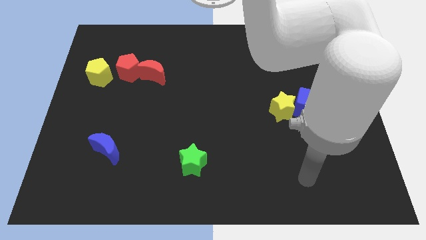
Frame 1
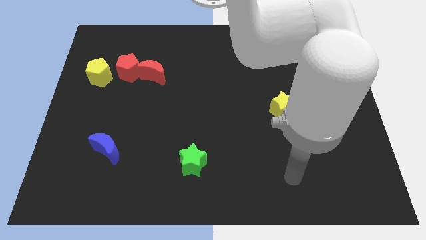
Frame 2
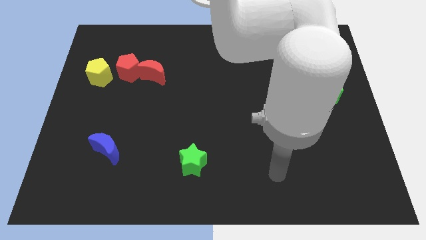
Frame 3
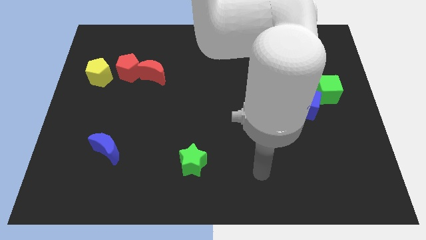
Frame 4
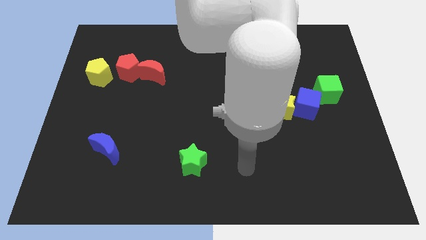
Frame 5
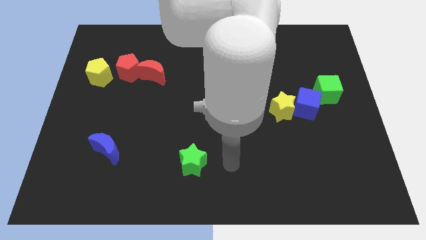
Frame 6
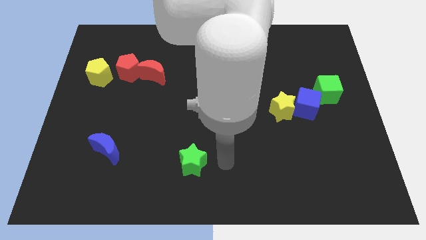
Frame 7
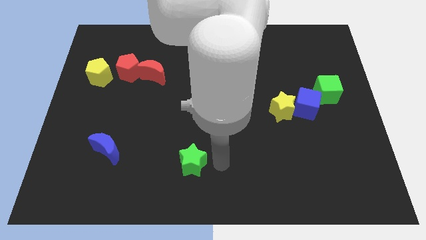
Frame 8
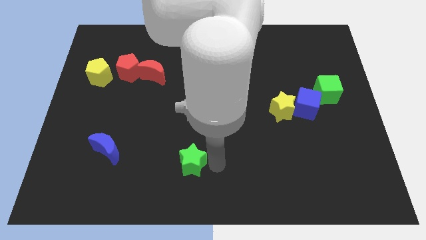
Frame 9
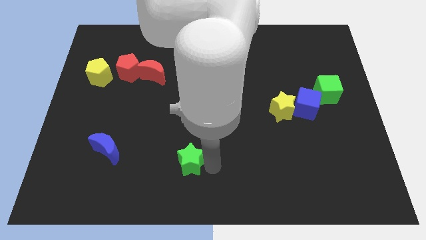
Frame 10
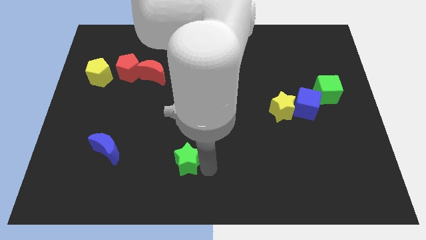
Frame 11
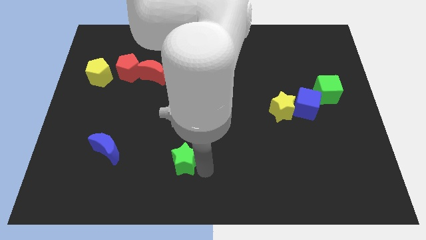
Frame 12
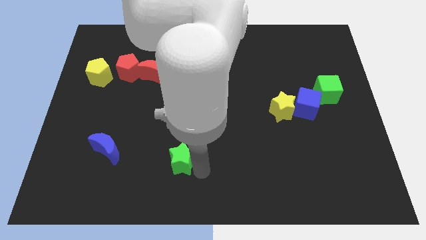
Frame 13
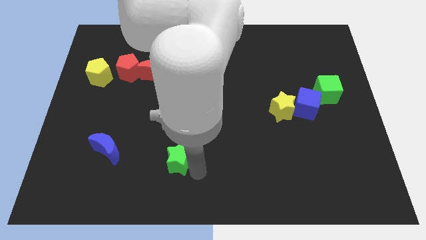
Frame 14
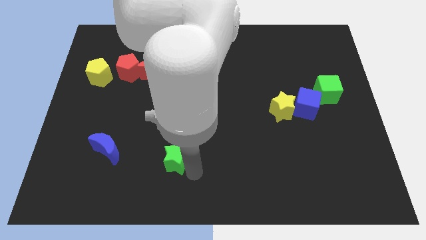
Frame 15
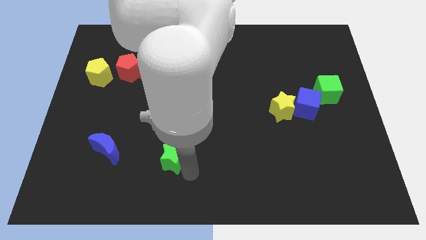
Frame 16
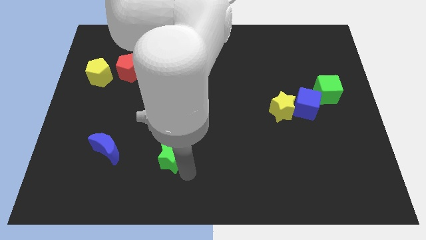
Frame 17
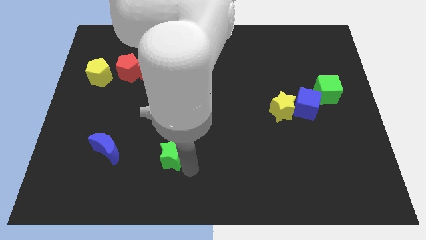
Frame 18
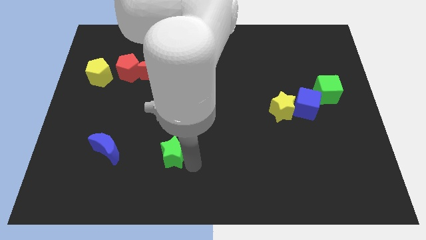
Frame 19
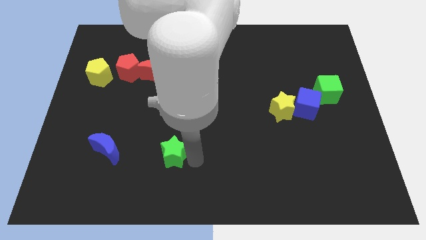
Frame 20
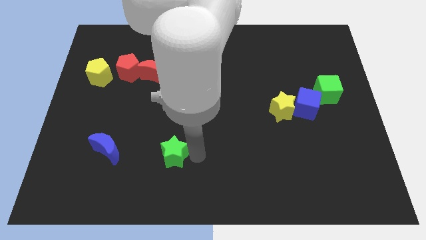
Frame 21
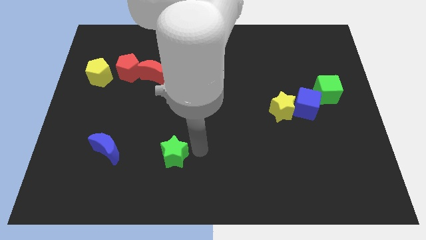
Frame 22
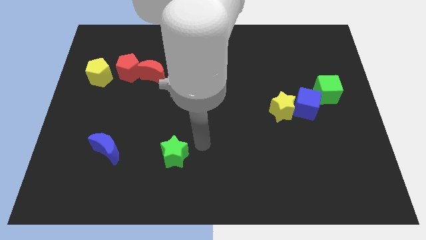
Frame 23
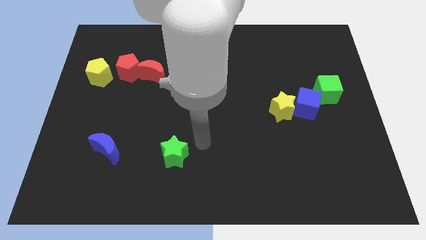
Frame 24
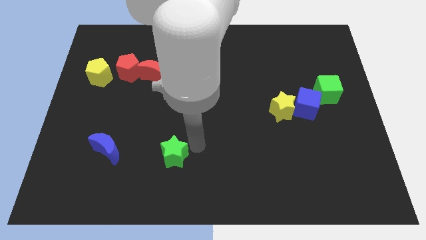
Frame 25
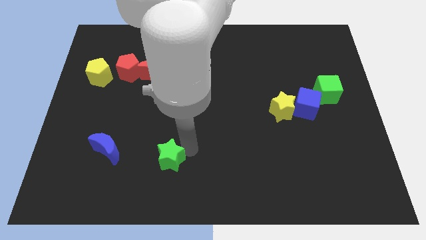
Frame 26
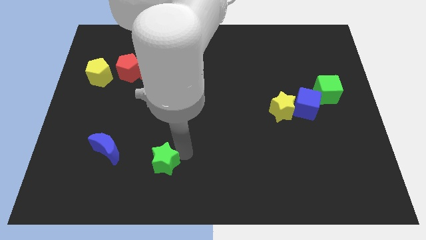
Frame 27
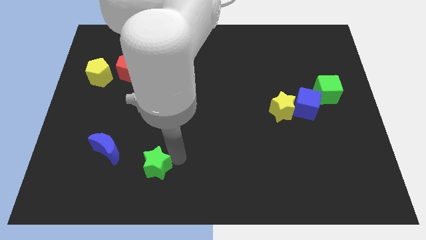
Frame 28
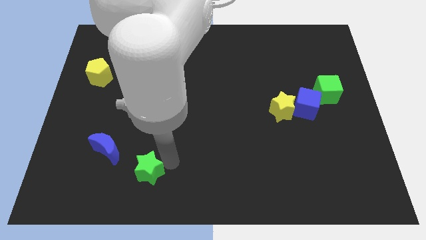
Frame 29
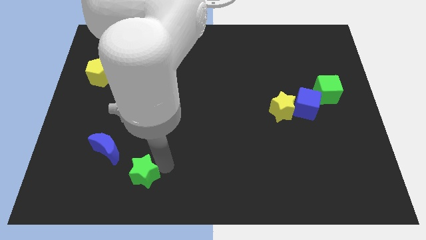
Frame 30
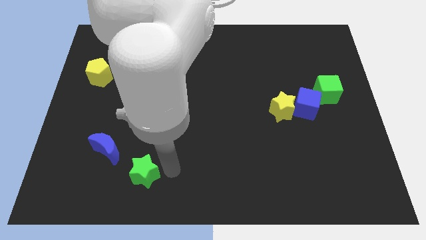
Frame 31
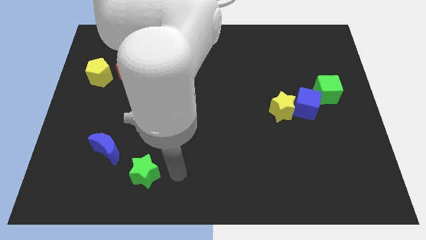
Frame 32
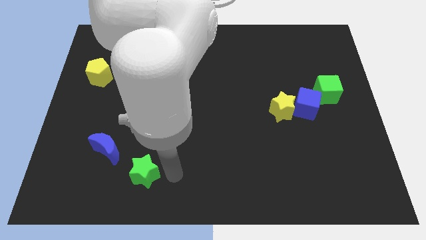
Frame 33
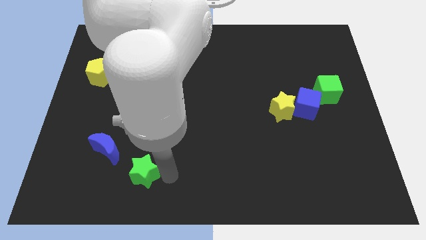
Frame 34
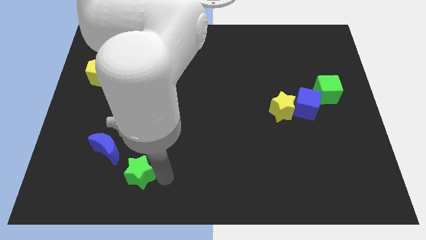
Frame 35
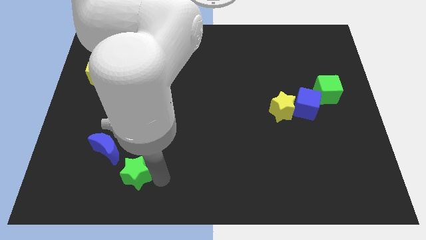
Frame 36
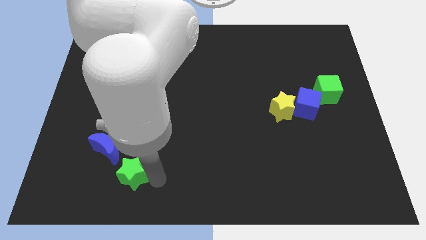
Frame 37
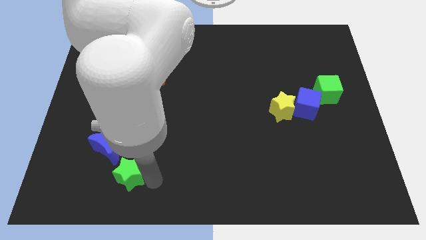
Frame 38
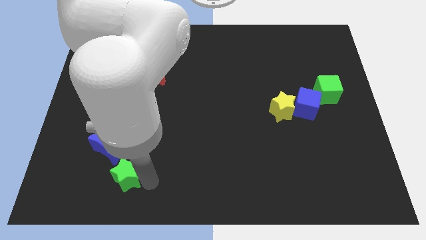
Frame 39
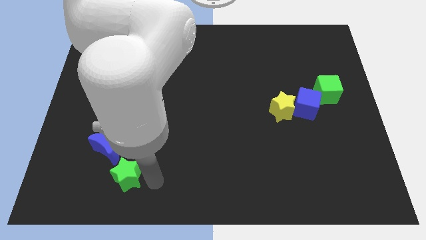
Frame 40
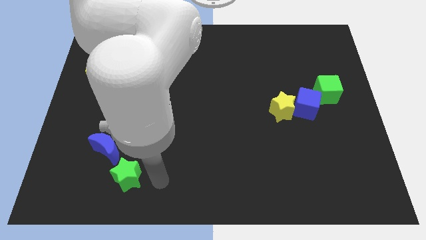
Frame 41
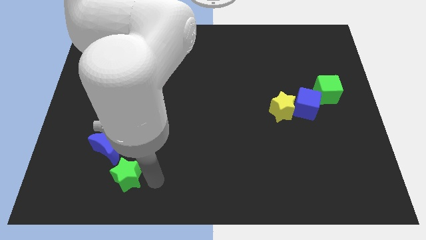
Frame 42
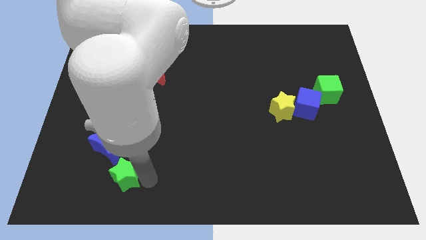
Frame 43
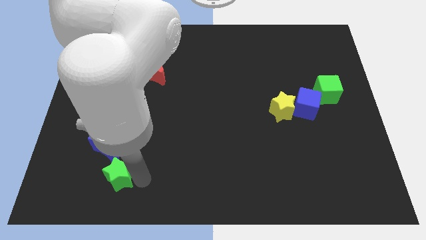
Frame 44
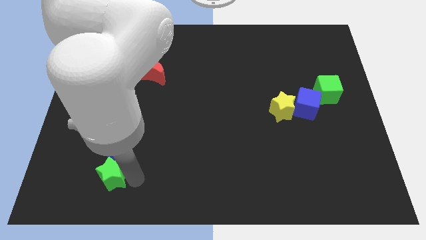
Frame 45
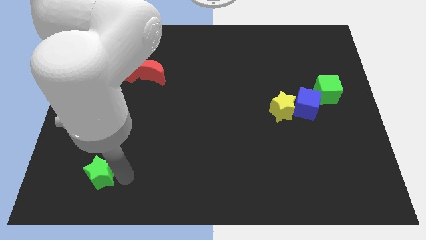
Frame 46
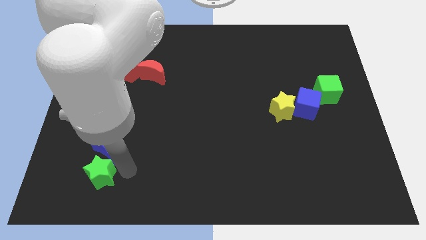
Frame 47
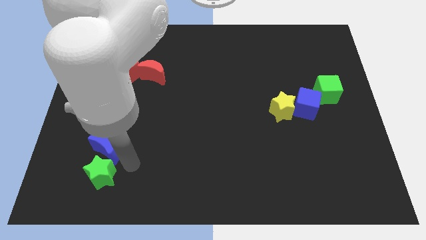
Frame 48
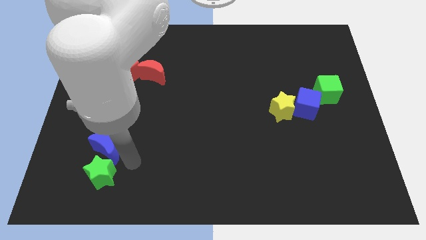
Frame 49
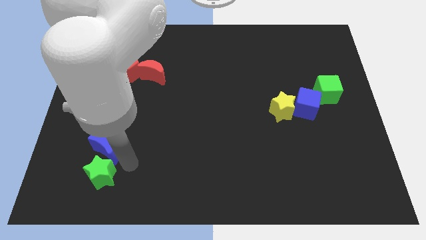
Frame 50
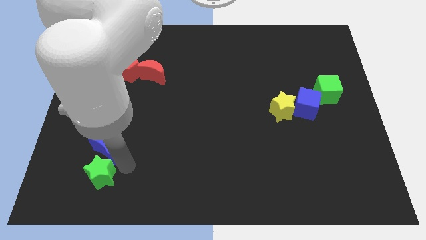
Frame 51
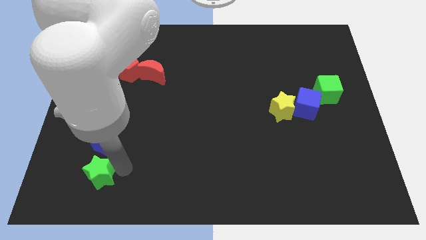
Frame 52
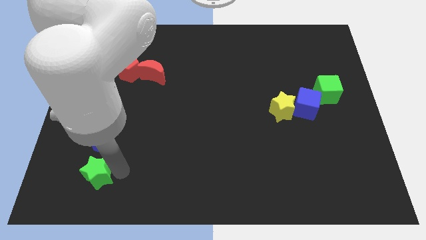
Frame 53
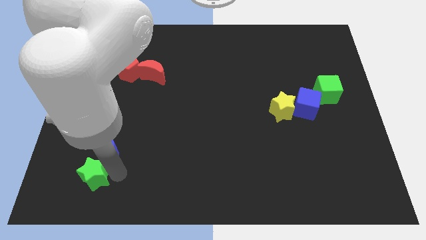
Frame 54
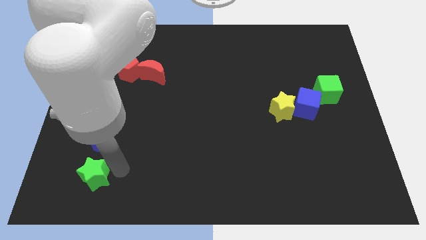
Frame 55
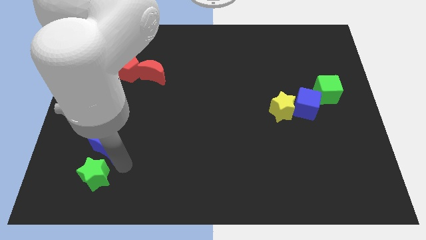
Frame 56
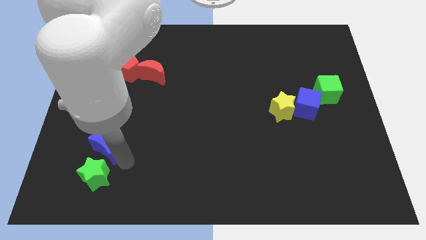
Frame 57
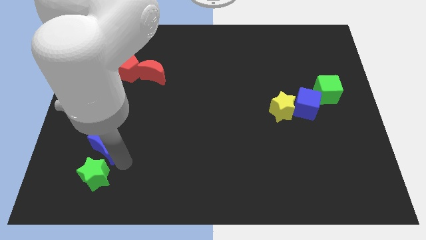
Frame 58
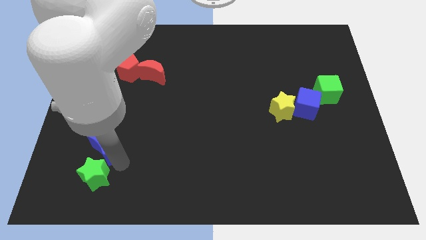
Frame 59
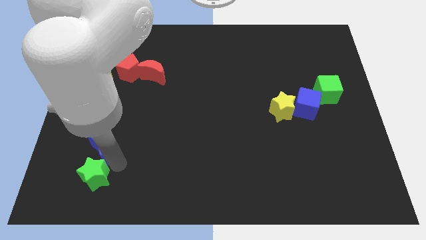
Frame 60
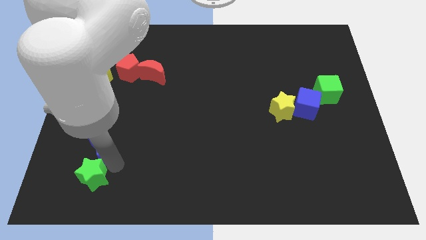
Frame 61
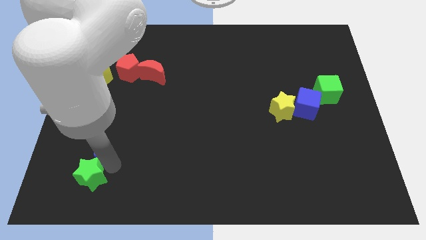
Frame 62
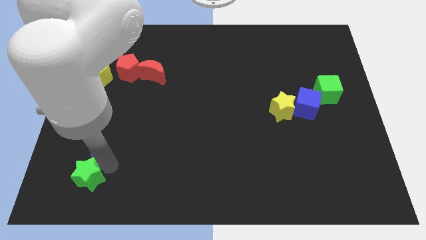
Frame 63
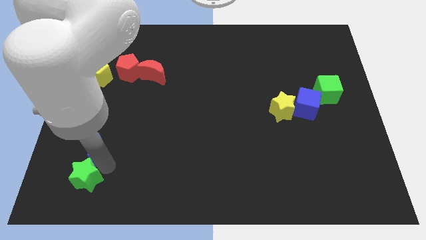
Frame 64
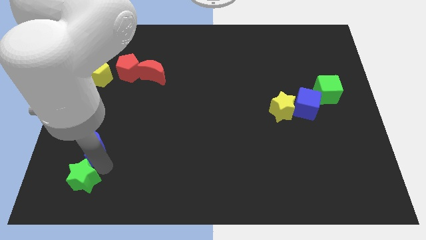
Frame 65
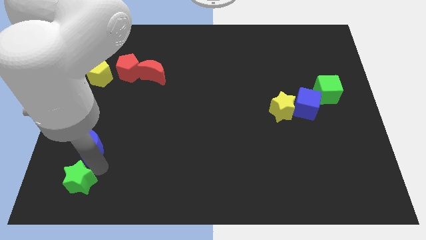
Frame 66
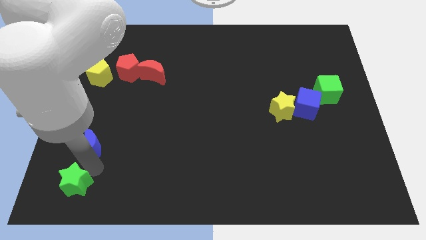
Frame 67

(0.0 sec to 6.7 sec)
move the green star to the bottom left

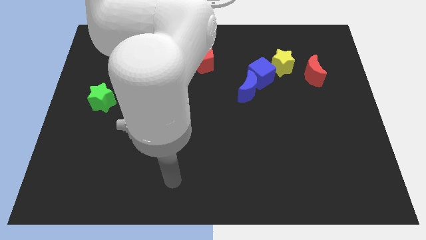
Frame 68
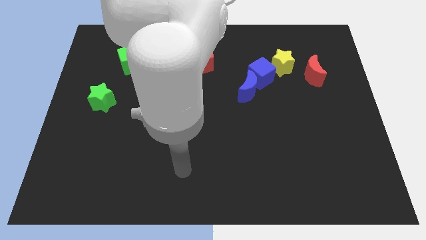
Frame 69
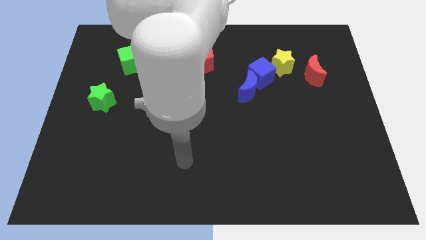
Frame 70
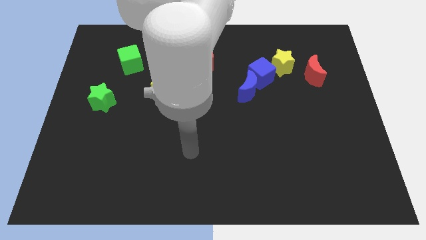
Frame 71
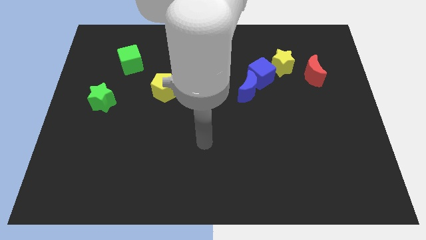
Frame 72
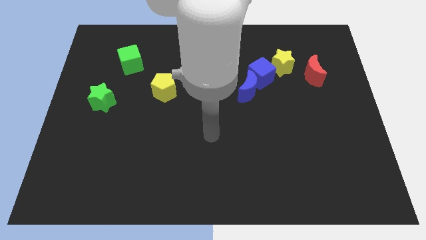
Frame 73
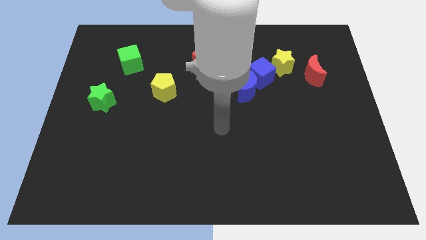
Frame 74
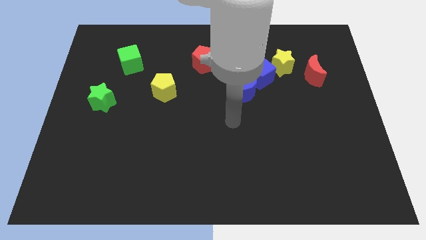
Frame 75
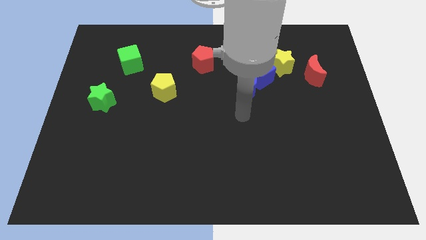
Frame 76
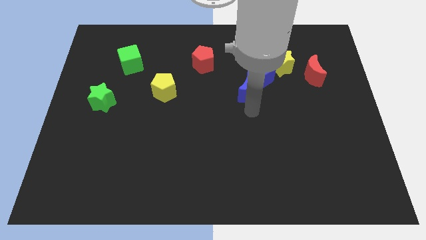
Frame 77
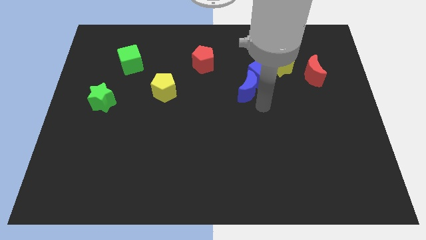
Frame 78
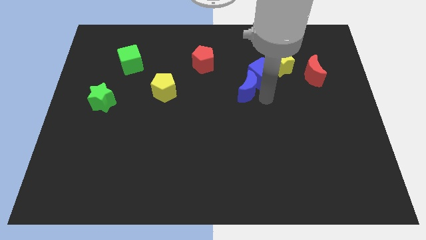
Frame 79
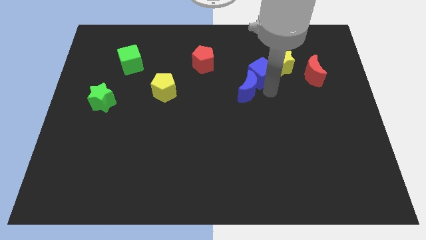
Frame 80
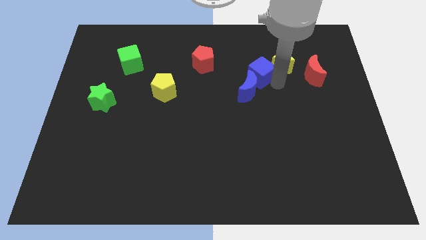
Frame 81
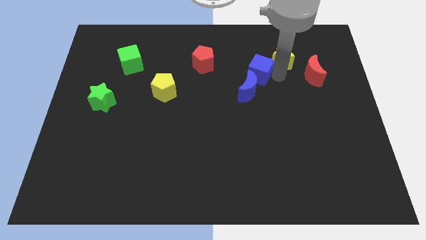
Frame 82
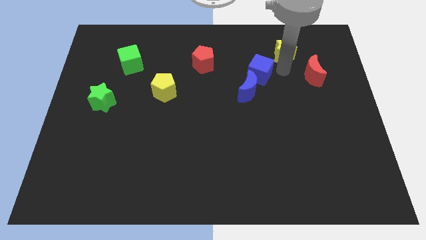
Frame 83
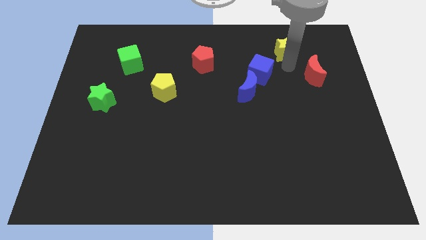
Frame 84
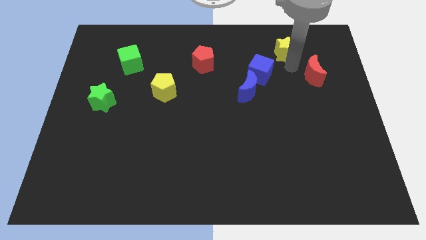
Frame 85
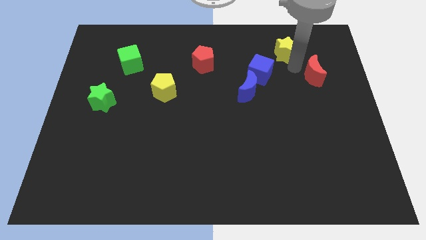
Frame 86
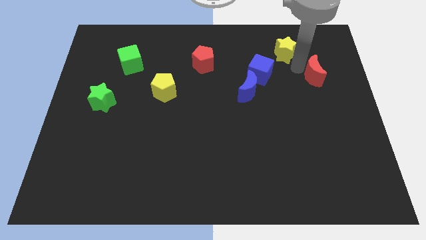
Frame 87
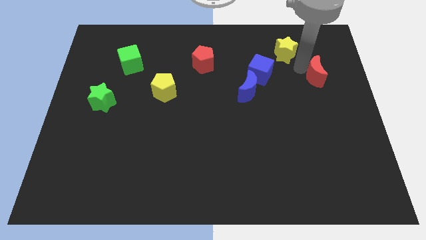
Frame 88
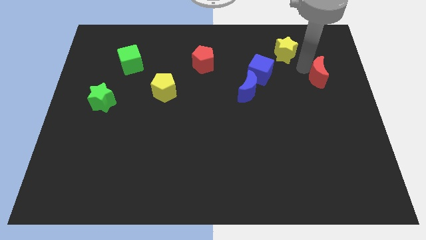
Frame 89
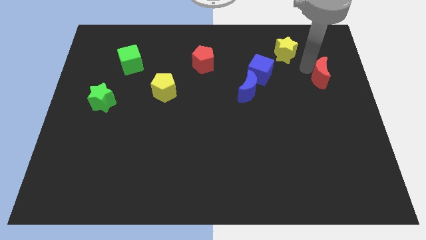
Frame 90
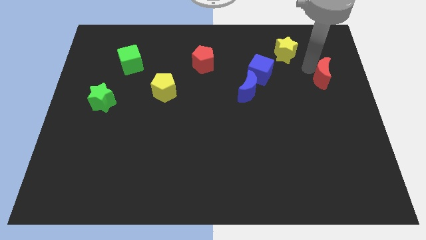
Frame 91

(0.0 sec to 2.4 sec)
slide the red moon to the right side of the board
